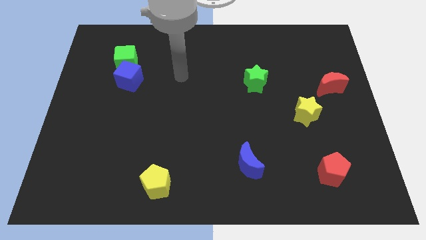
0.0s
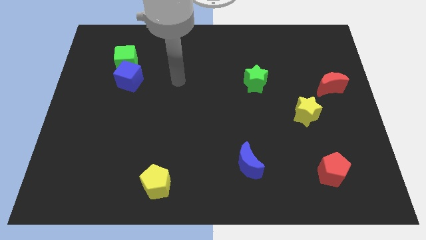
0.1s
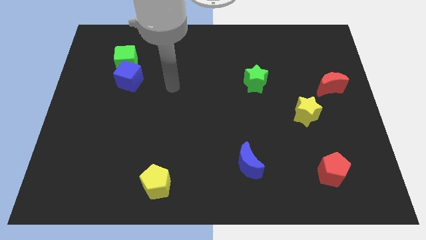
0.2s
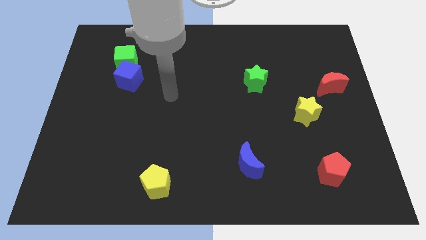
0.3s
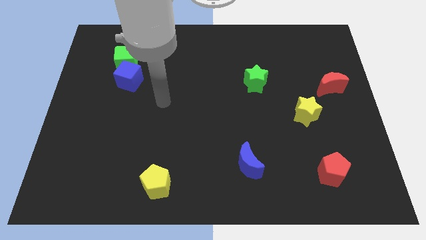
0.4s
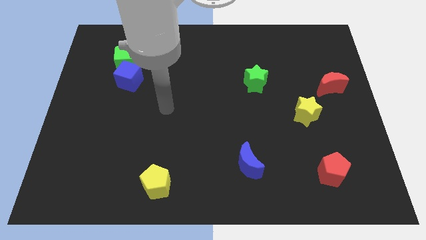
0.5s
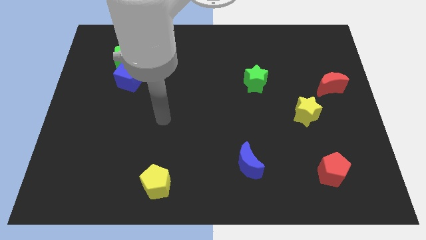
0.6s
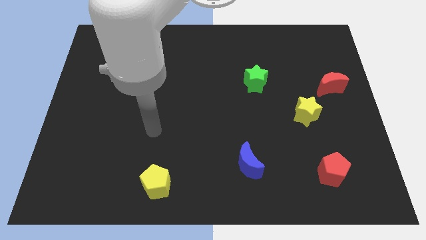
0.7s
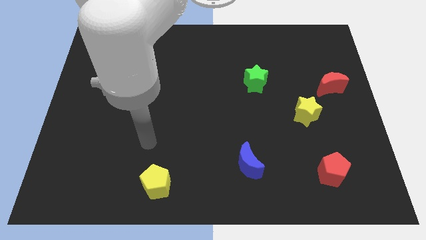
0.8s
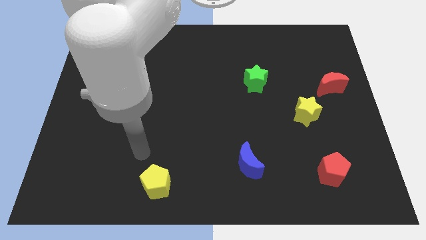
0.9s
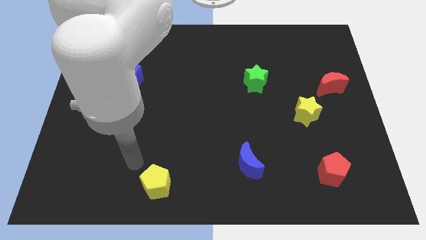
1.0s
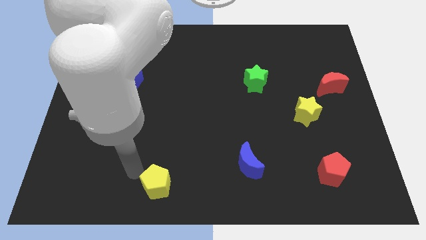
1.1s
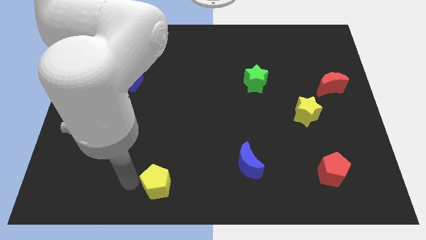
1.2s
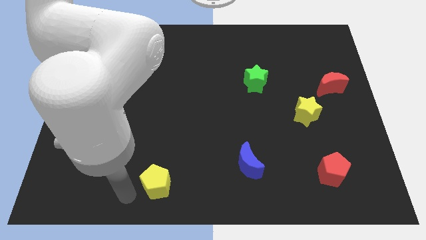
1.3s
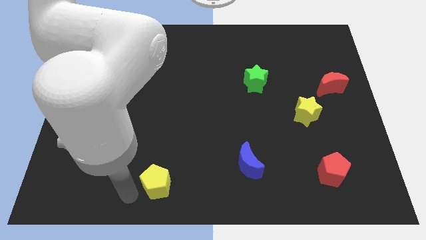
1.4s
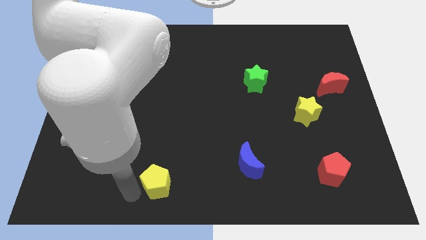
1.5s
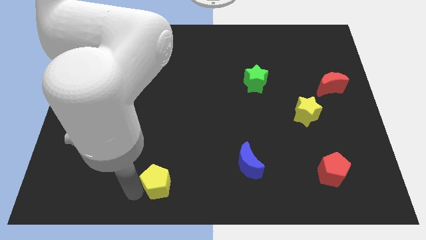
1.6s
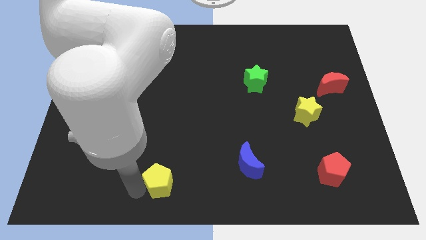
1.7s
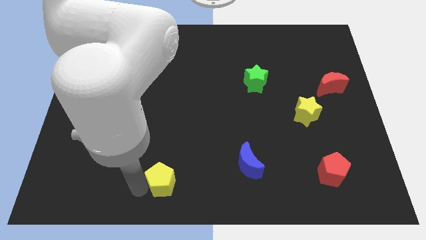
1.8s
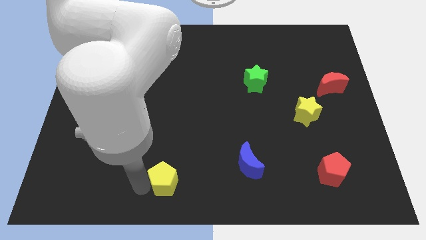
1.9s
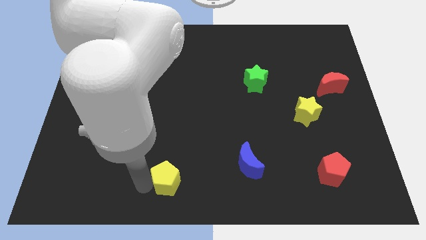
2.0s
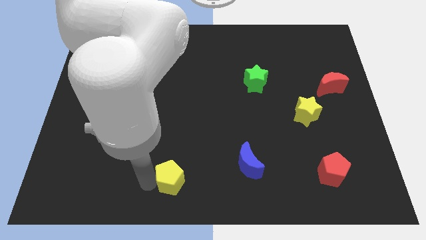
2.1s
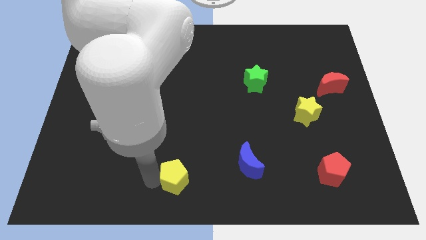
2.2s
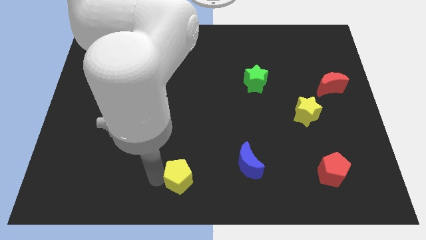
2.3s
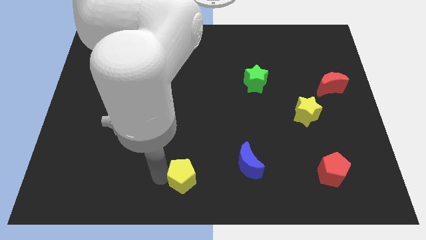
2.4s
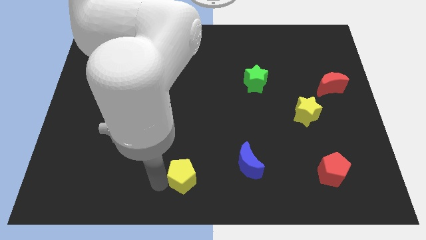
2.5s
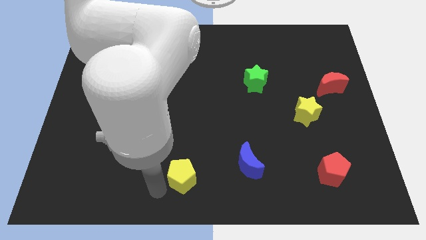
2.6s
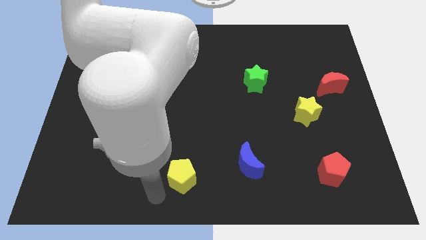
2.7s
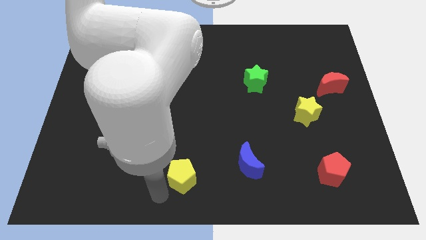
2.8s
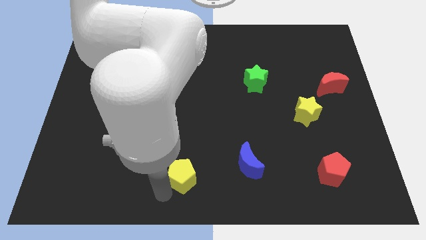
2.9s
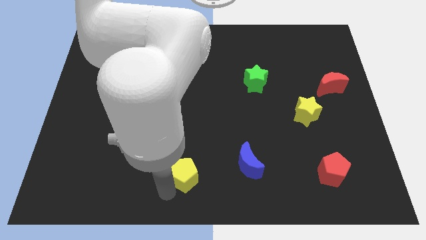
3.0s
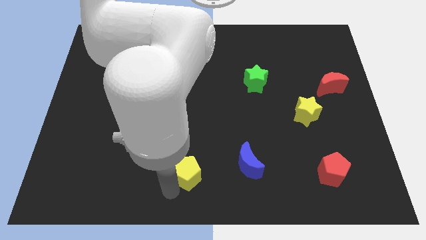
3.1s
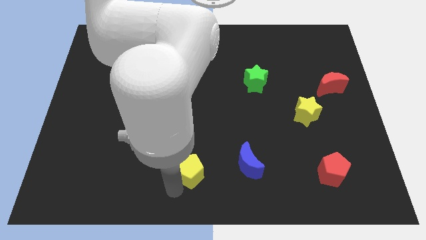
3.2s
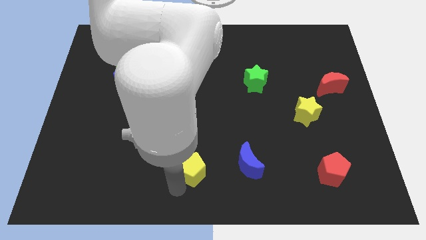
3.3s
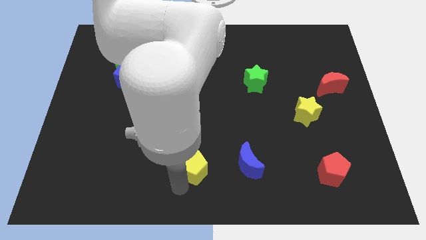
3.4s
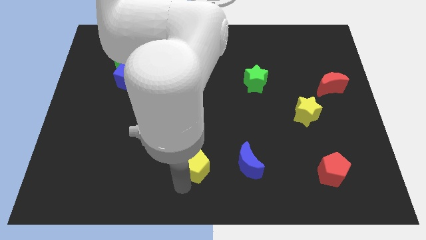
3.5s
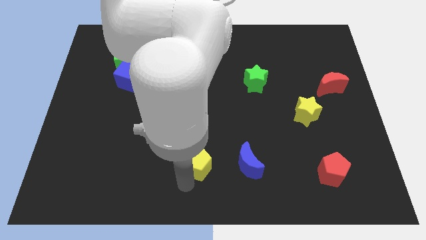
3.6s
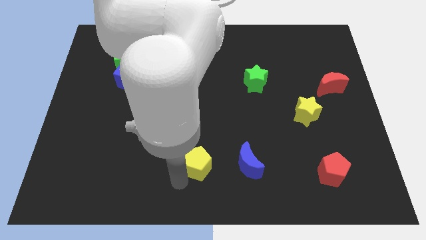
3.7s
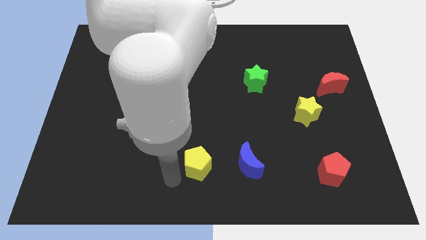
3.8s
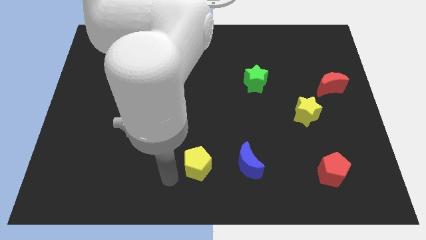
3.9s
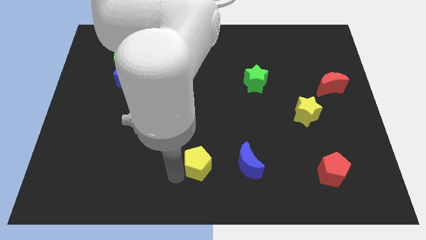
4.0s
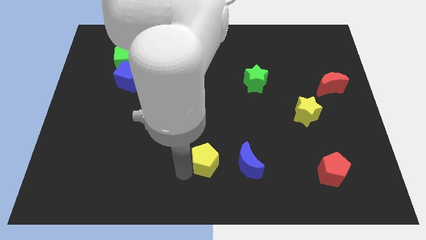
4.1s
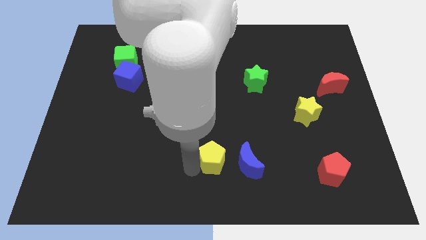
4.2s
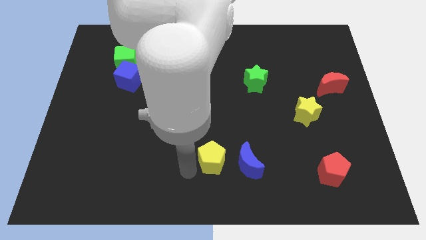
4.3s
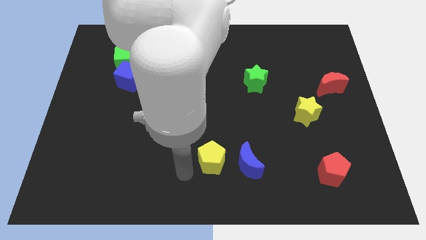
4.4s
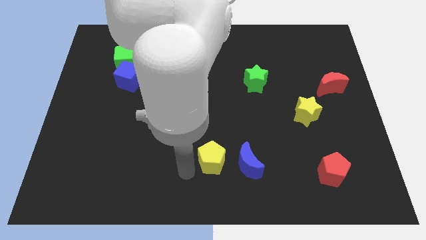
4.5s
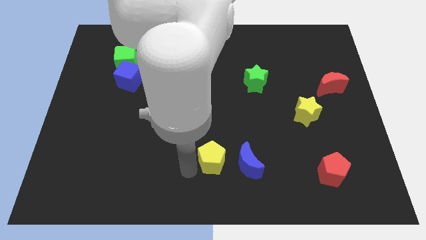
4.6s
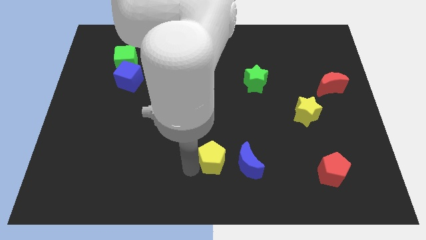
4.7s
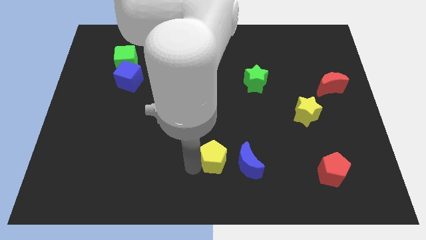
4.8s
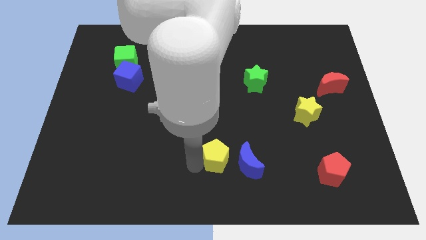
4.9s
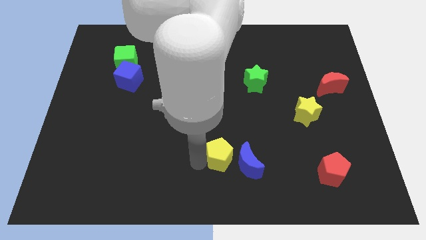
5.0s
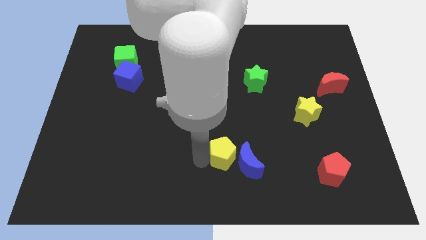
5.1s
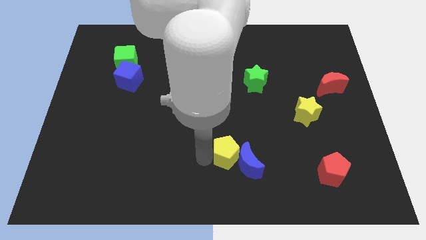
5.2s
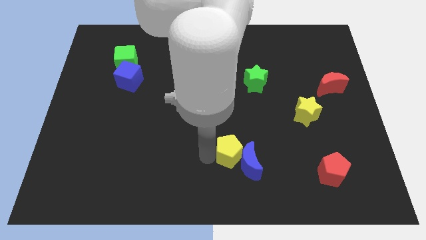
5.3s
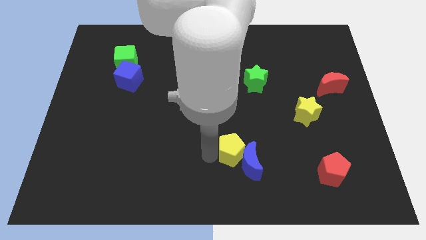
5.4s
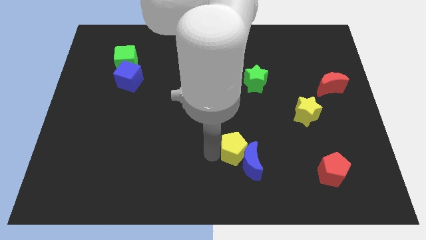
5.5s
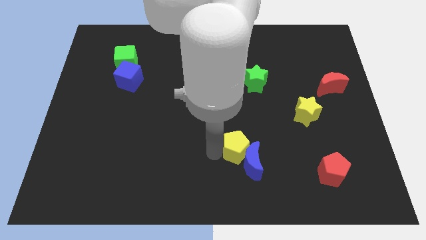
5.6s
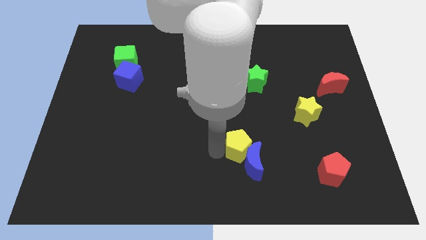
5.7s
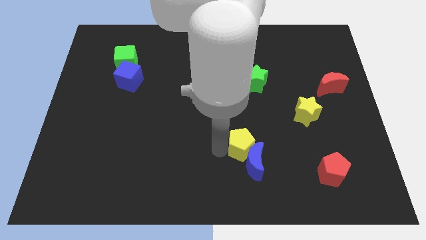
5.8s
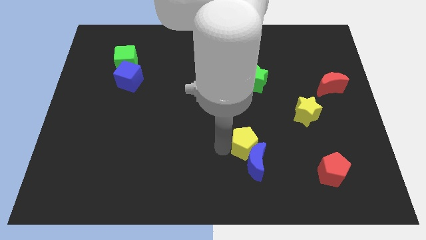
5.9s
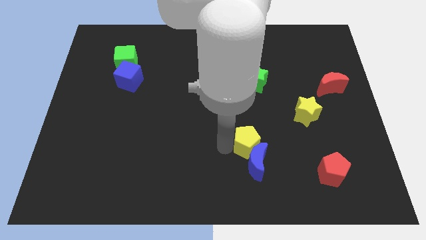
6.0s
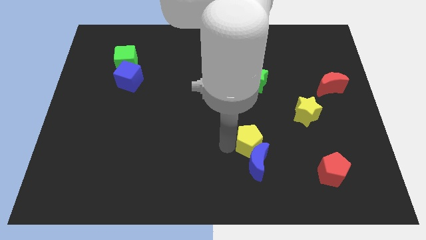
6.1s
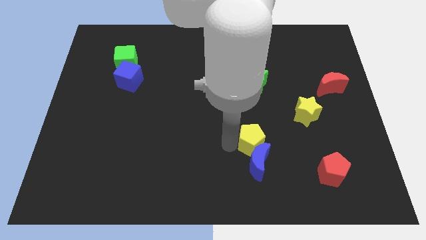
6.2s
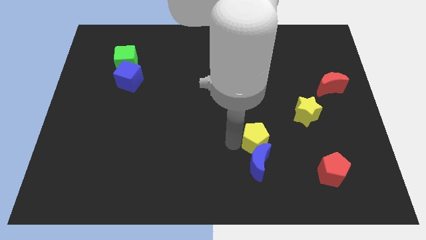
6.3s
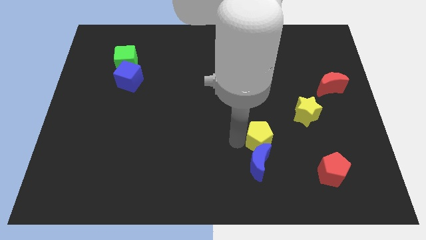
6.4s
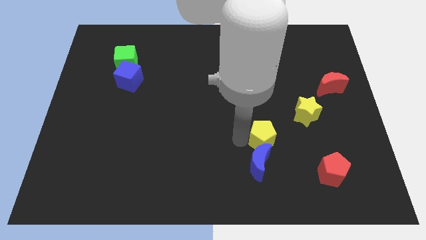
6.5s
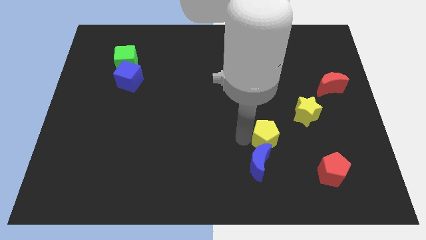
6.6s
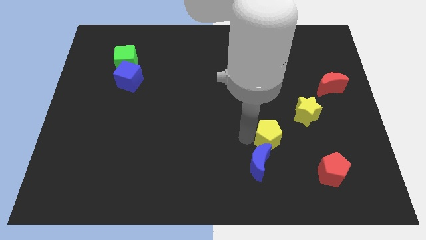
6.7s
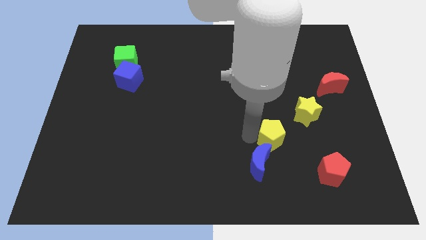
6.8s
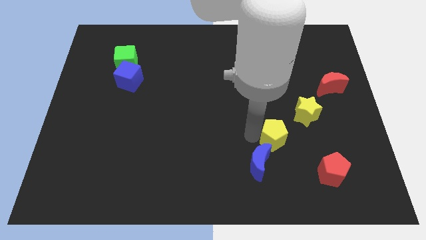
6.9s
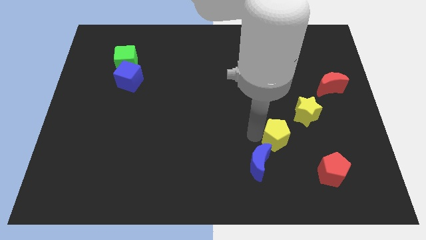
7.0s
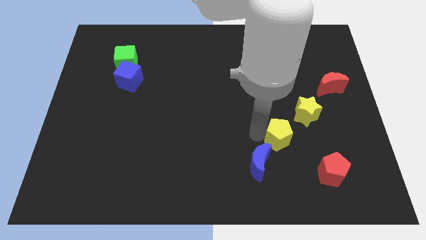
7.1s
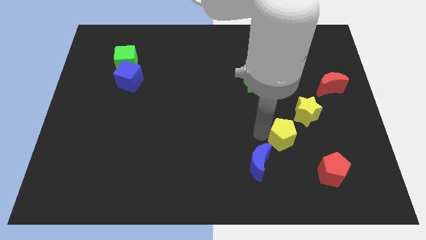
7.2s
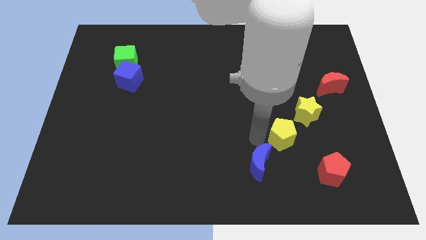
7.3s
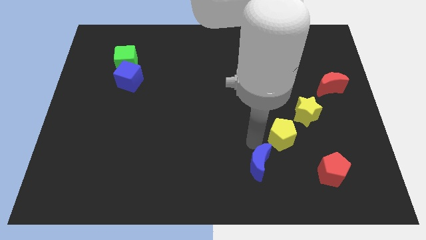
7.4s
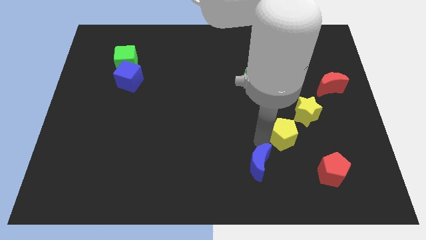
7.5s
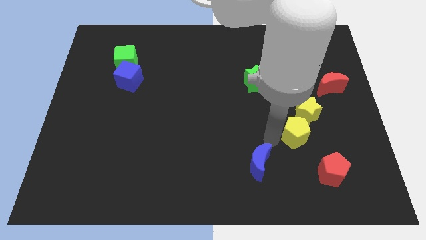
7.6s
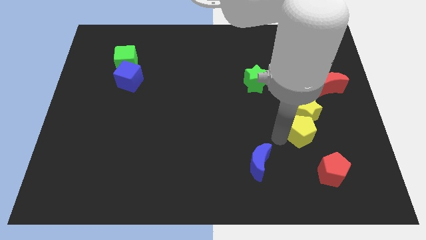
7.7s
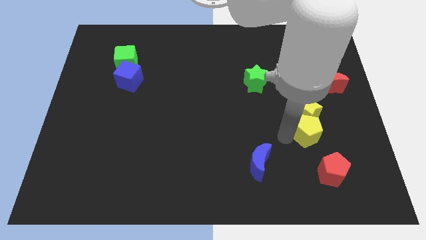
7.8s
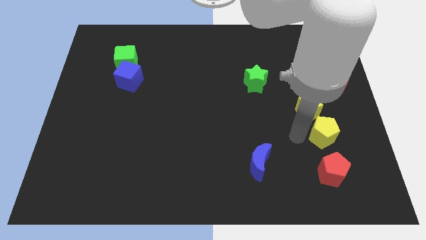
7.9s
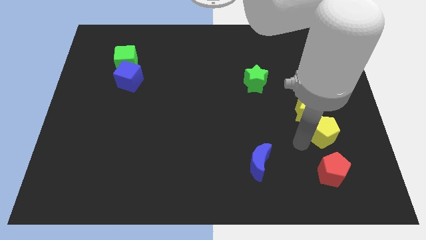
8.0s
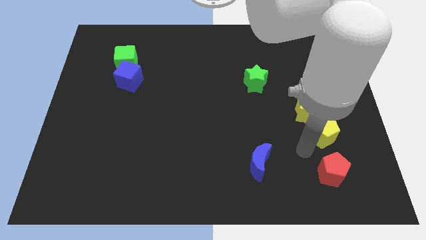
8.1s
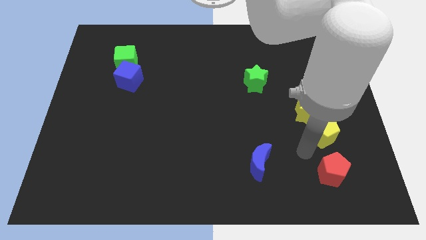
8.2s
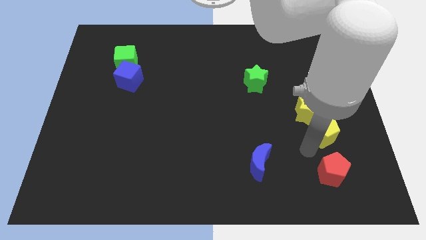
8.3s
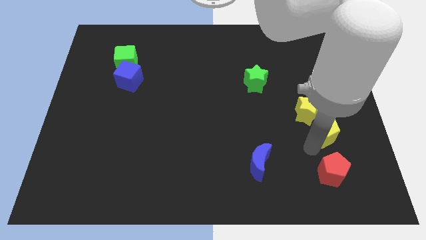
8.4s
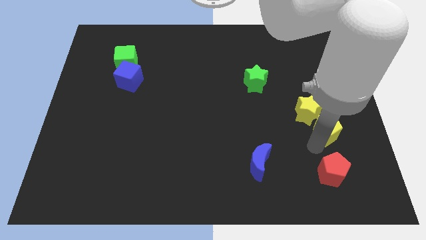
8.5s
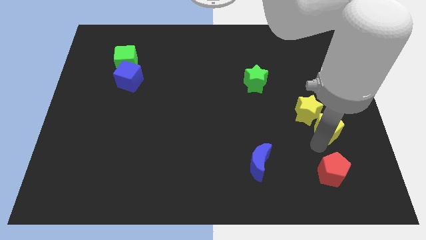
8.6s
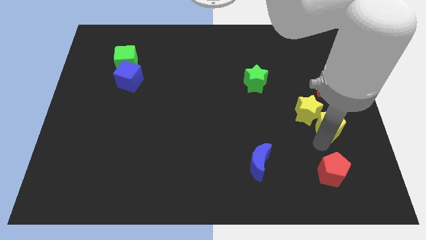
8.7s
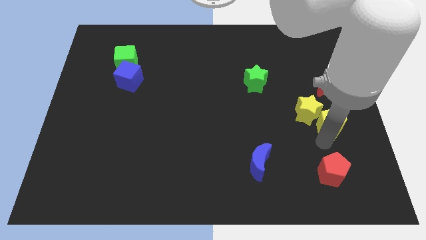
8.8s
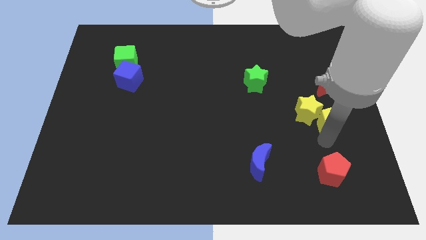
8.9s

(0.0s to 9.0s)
move the yellow pentagon to the center right
